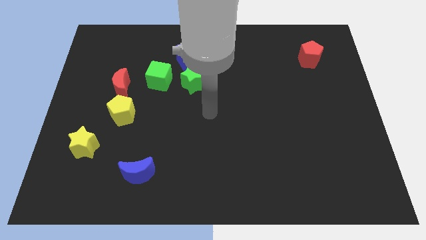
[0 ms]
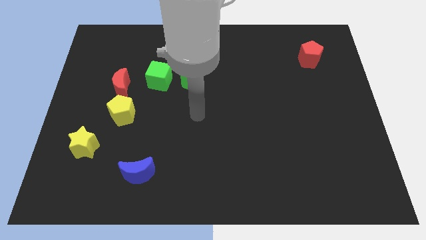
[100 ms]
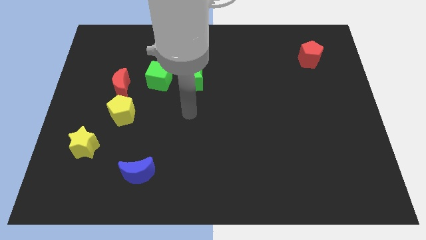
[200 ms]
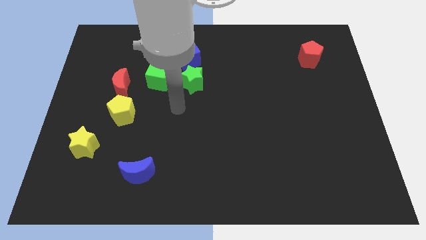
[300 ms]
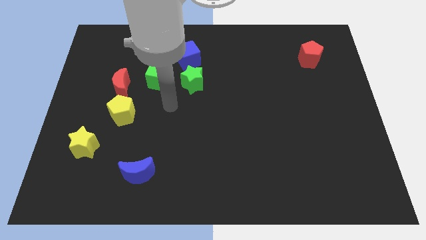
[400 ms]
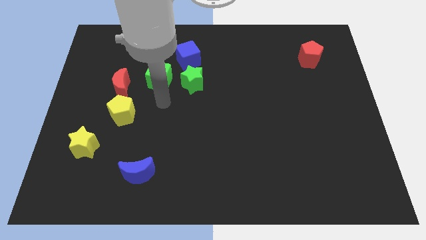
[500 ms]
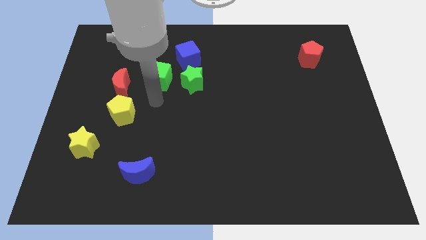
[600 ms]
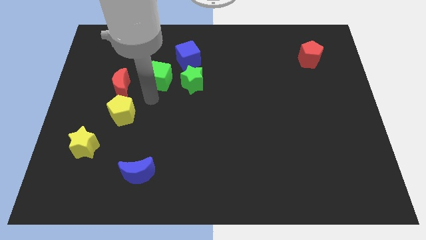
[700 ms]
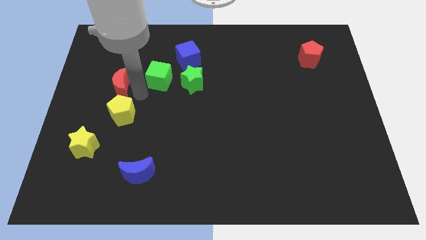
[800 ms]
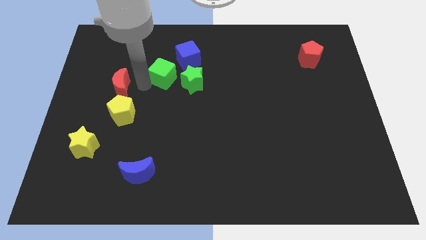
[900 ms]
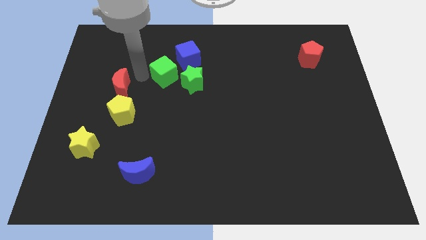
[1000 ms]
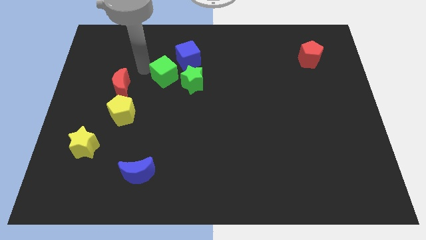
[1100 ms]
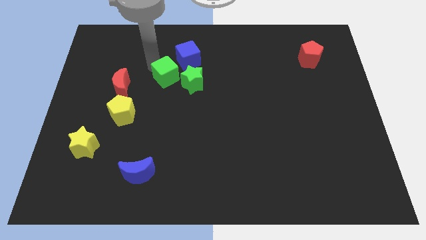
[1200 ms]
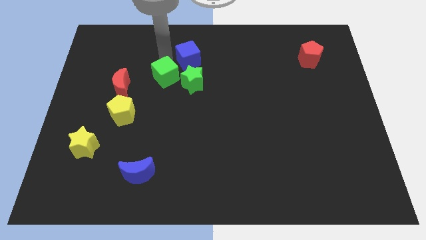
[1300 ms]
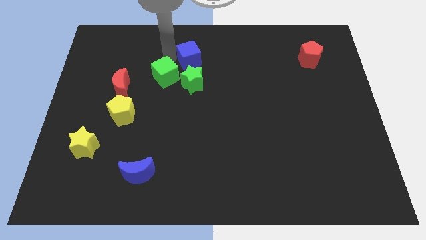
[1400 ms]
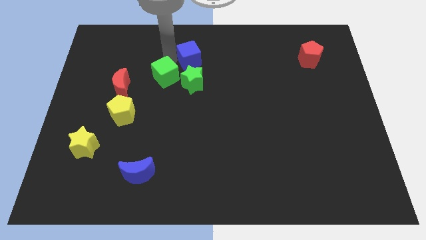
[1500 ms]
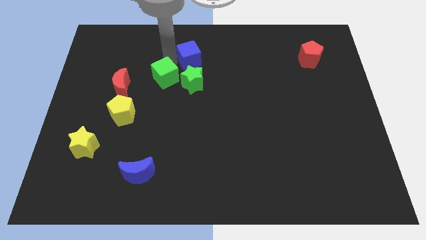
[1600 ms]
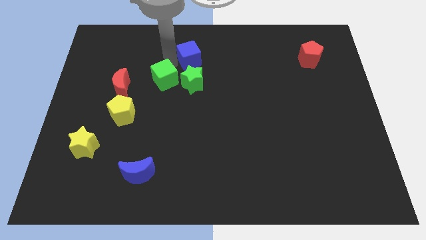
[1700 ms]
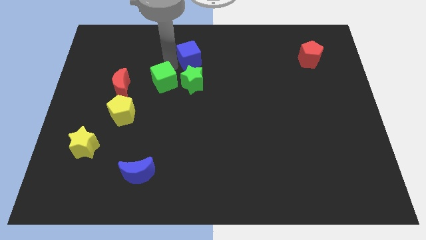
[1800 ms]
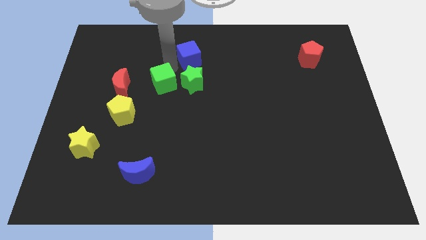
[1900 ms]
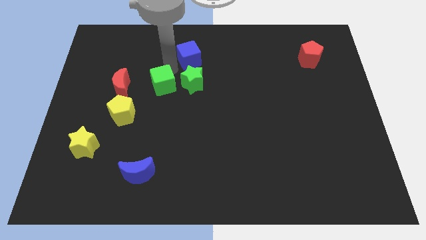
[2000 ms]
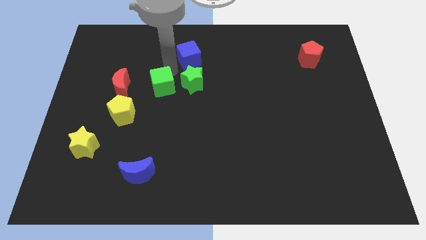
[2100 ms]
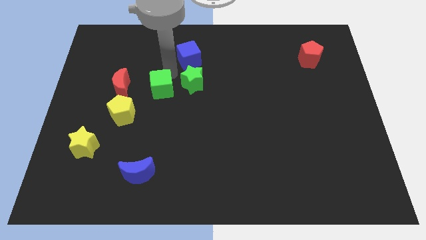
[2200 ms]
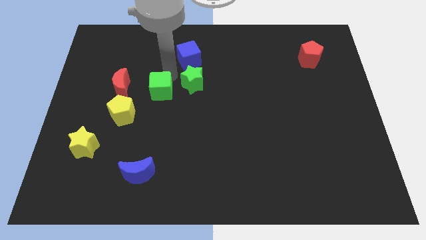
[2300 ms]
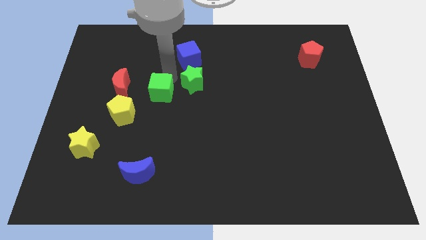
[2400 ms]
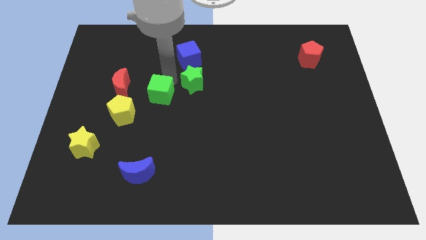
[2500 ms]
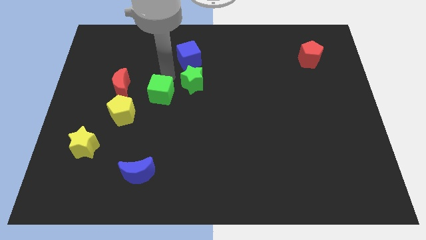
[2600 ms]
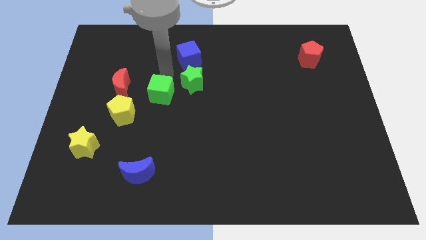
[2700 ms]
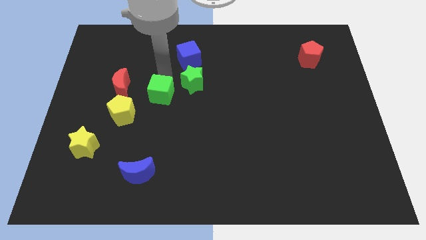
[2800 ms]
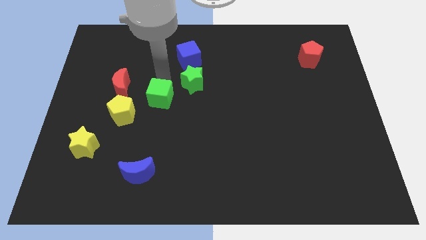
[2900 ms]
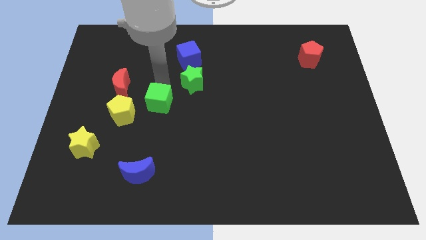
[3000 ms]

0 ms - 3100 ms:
push the green cube downwards a bit

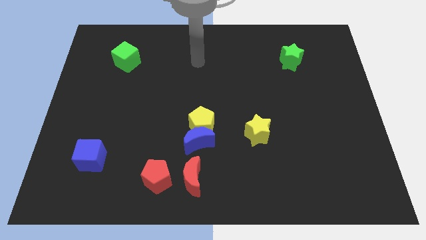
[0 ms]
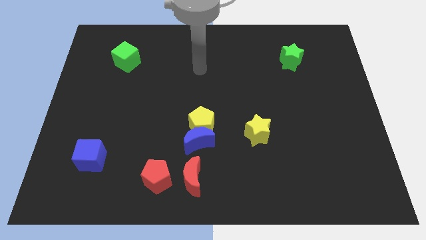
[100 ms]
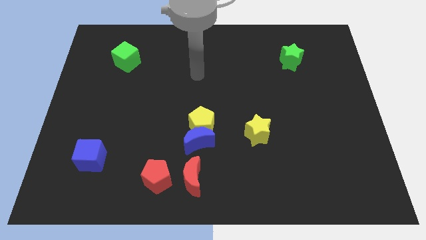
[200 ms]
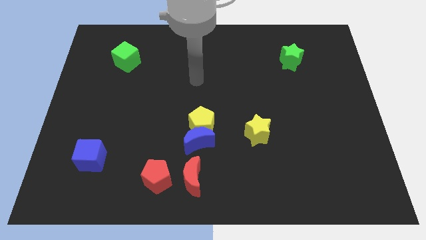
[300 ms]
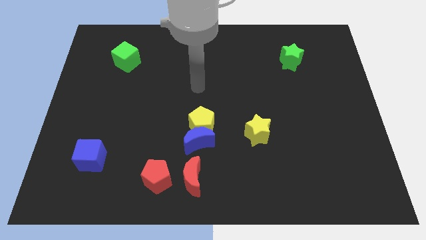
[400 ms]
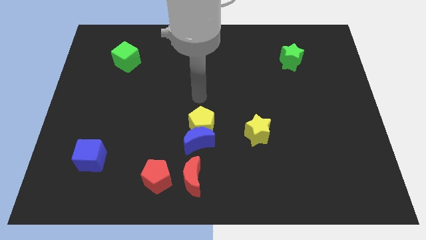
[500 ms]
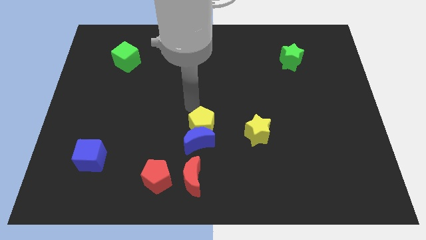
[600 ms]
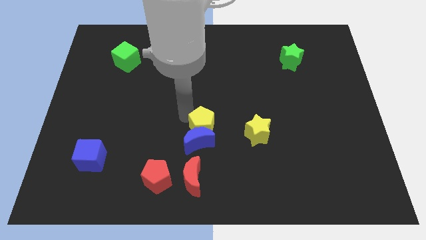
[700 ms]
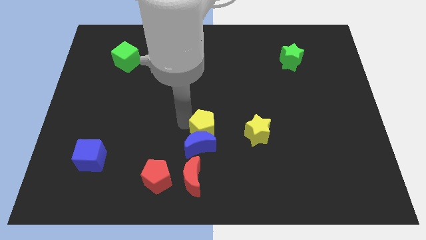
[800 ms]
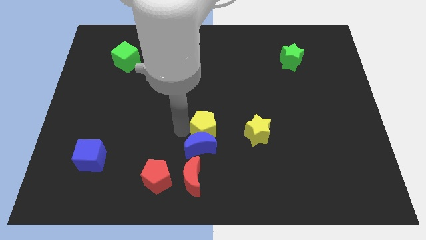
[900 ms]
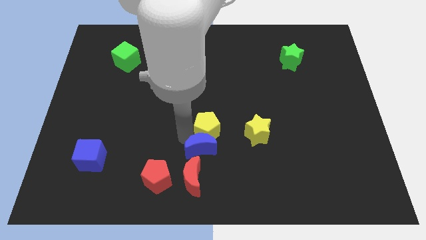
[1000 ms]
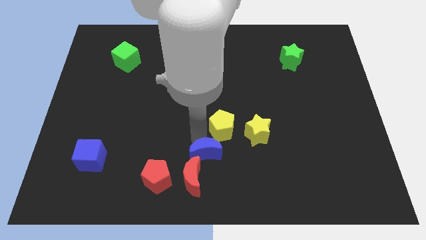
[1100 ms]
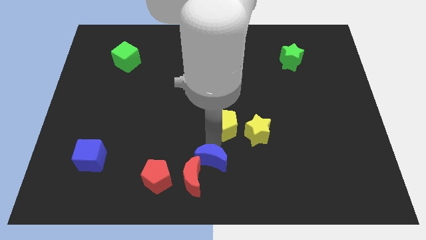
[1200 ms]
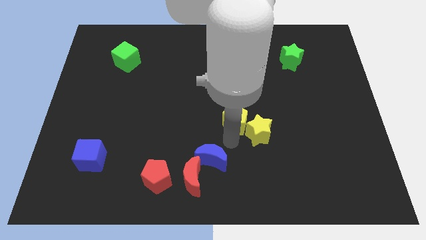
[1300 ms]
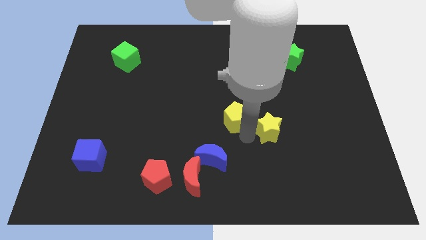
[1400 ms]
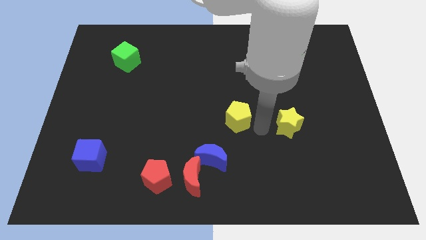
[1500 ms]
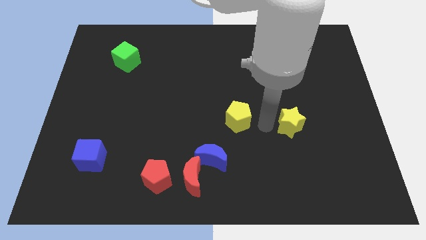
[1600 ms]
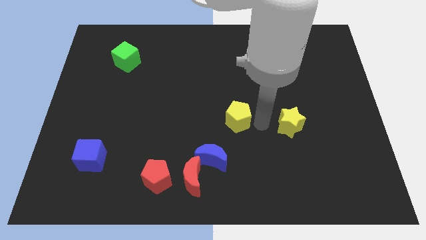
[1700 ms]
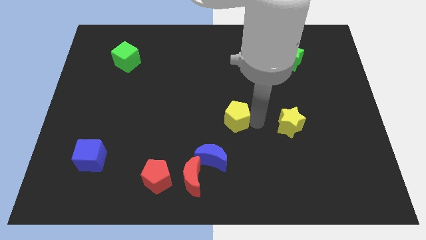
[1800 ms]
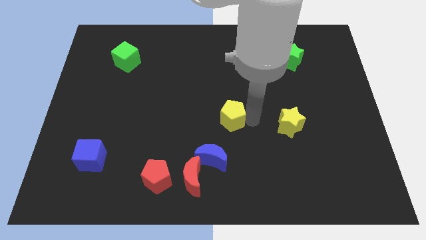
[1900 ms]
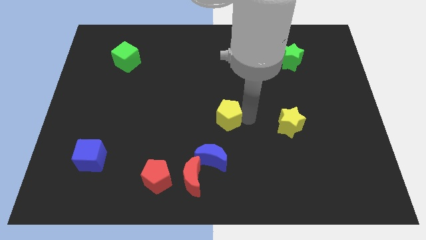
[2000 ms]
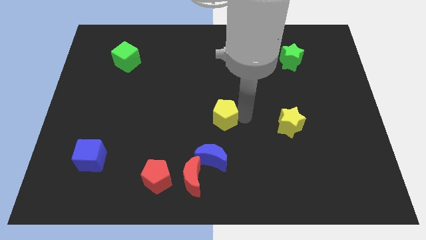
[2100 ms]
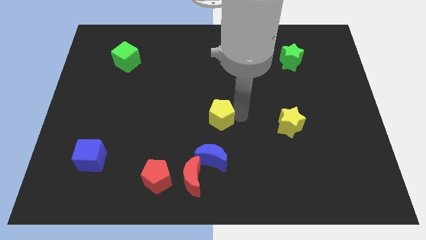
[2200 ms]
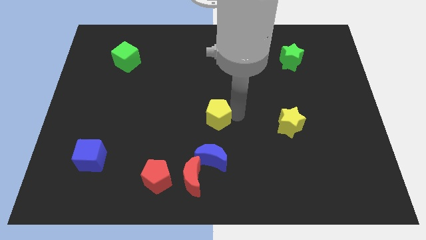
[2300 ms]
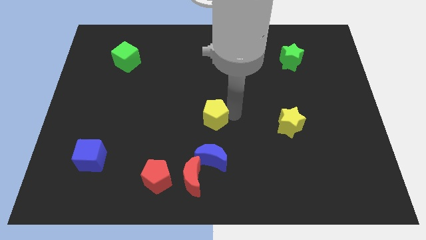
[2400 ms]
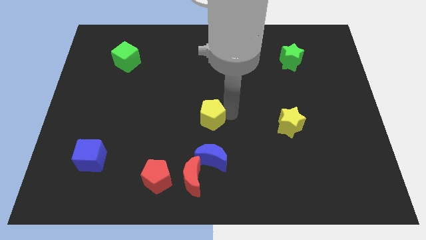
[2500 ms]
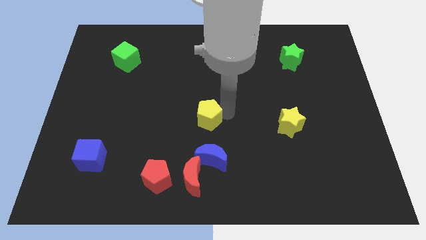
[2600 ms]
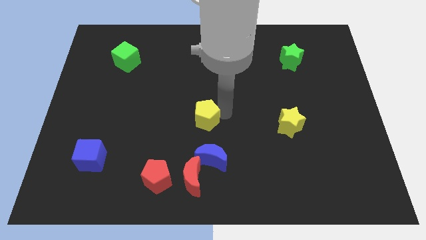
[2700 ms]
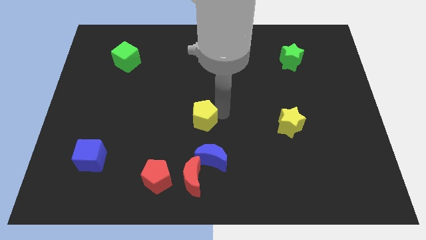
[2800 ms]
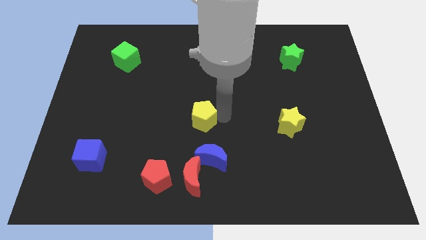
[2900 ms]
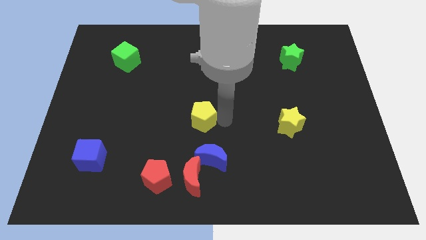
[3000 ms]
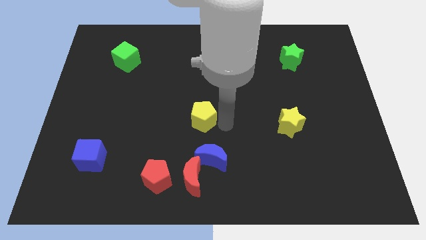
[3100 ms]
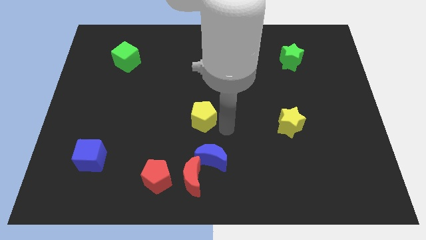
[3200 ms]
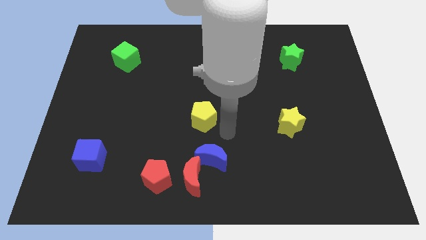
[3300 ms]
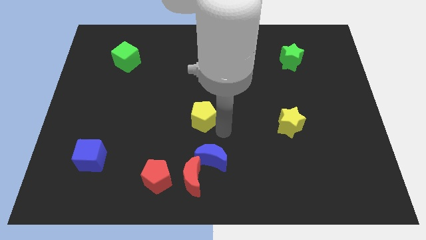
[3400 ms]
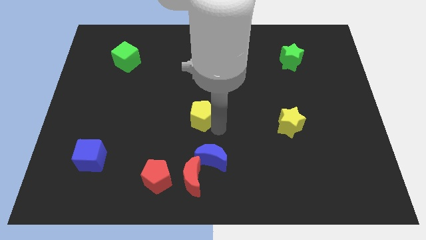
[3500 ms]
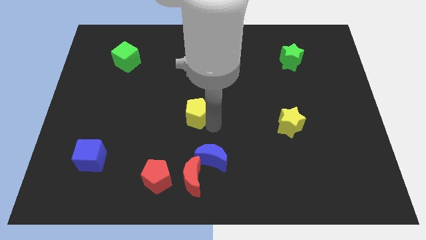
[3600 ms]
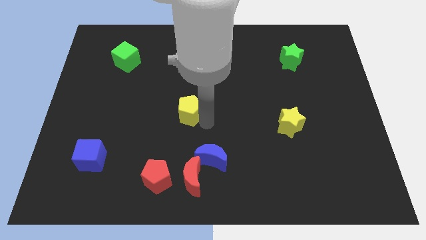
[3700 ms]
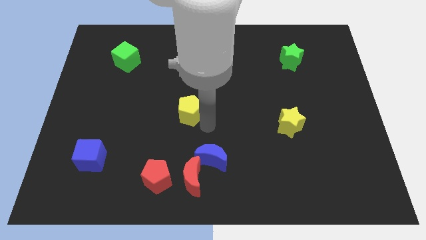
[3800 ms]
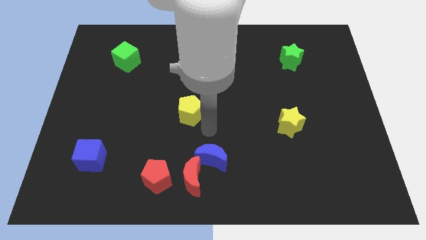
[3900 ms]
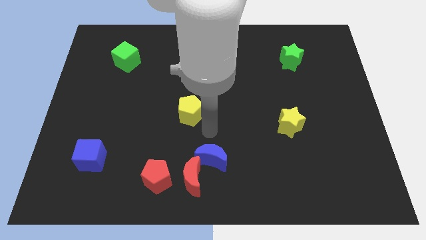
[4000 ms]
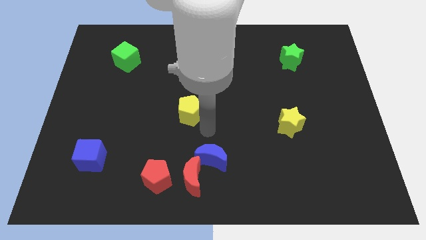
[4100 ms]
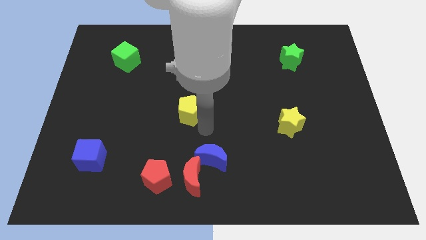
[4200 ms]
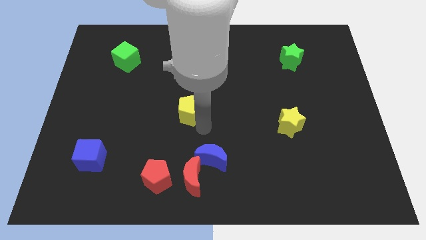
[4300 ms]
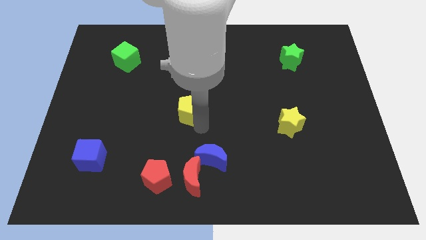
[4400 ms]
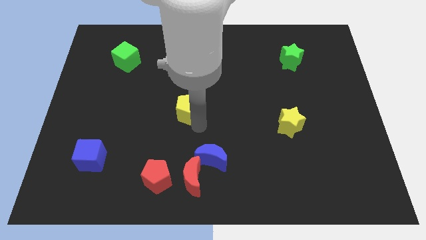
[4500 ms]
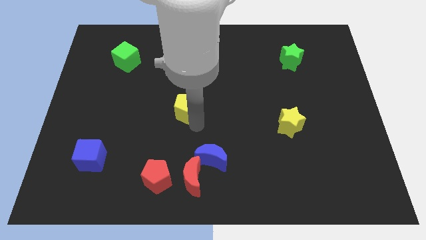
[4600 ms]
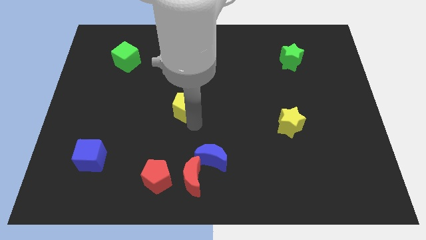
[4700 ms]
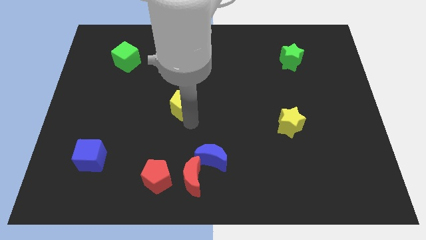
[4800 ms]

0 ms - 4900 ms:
slightly slide the yellow pentagon diagonally up and left
